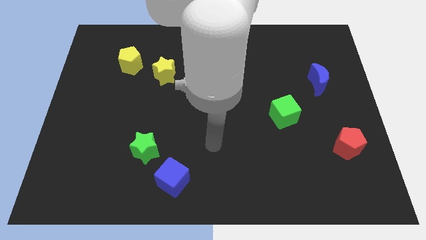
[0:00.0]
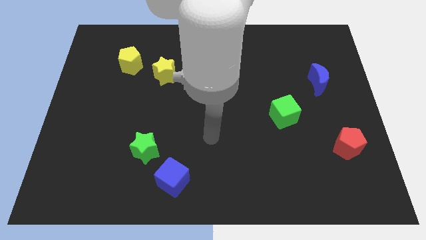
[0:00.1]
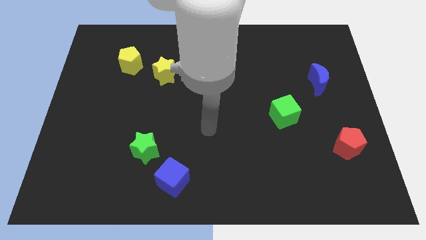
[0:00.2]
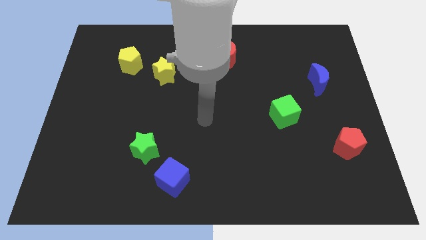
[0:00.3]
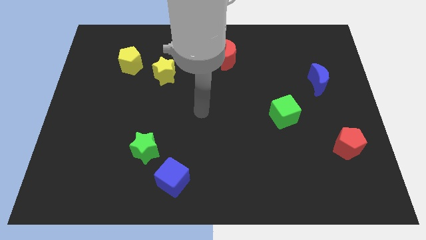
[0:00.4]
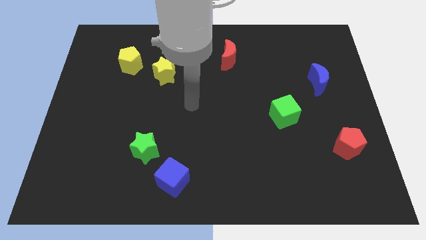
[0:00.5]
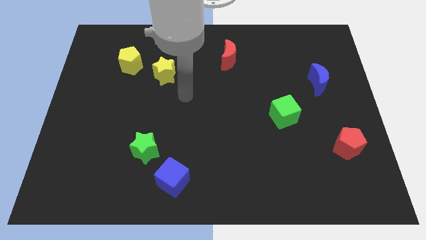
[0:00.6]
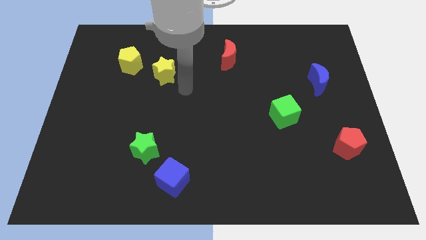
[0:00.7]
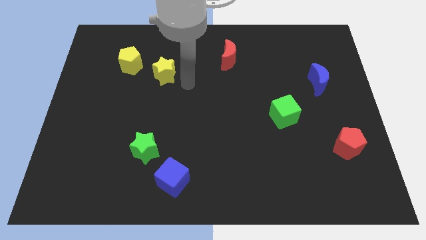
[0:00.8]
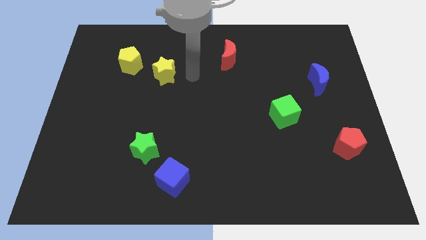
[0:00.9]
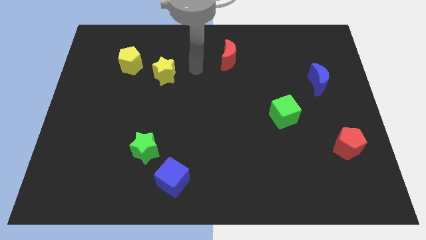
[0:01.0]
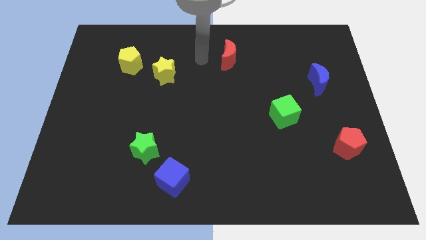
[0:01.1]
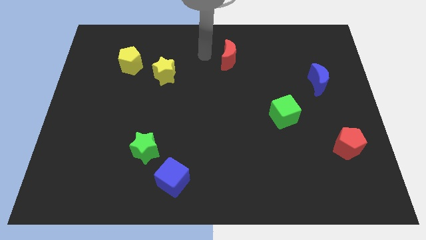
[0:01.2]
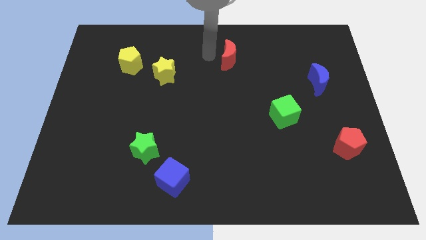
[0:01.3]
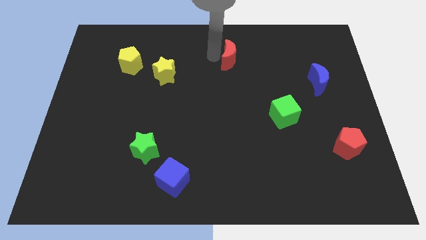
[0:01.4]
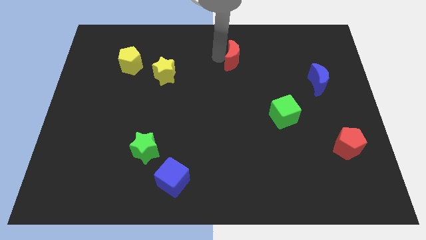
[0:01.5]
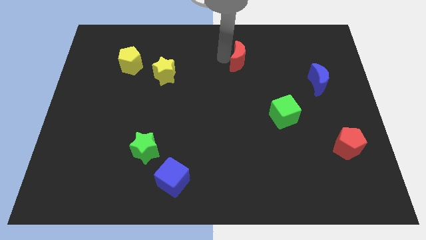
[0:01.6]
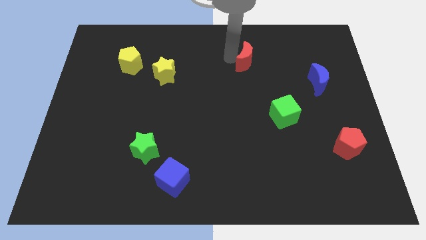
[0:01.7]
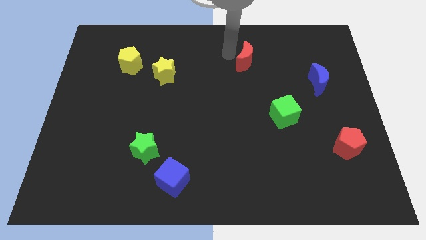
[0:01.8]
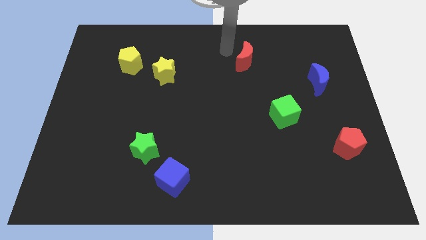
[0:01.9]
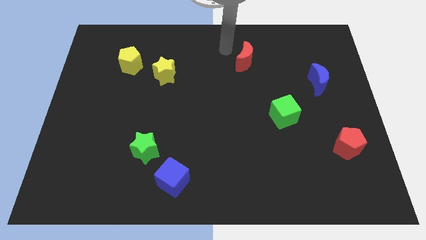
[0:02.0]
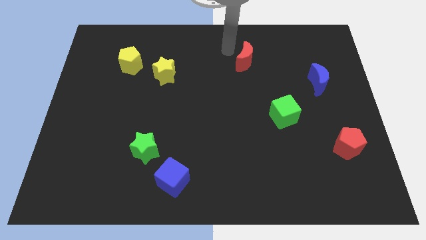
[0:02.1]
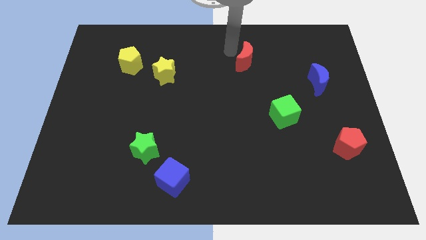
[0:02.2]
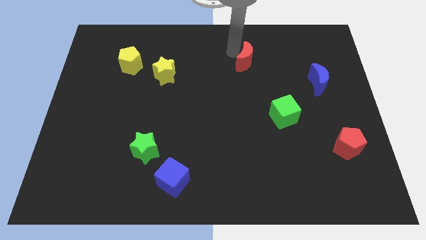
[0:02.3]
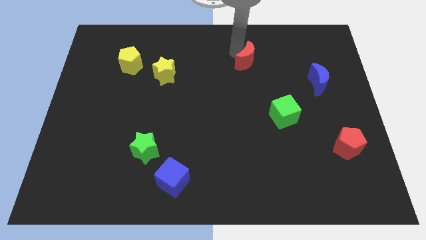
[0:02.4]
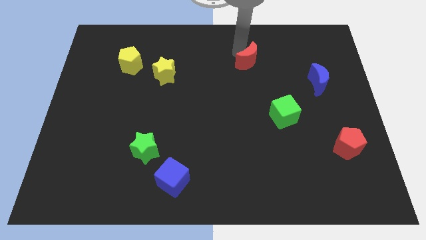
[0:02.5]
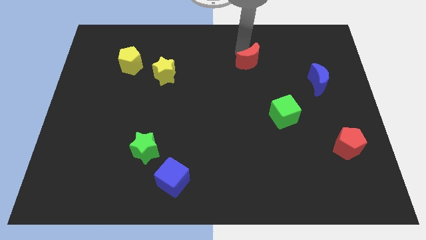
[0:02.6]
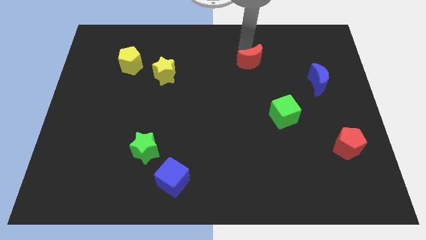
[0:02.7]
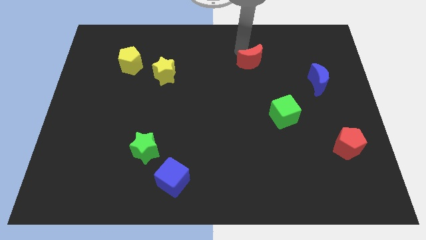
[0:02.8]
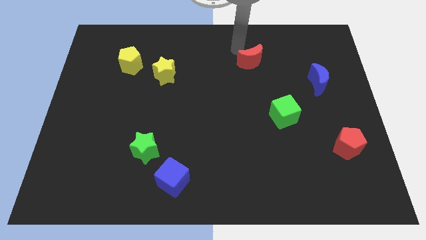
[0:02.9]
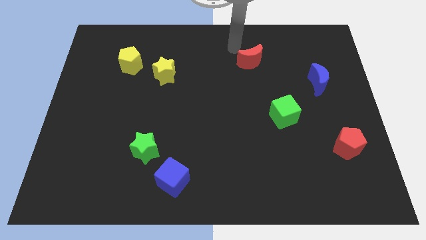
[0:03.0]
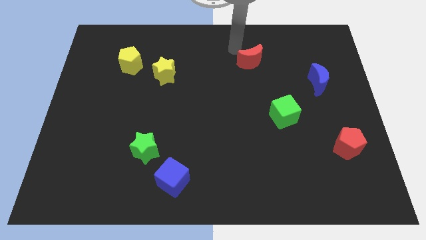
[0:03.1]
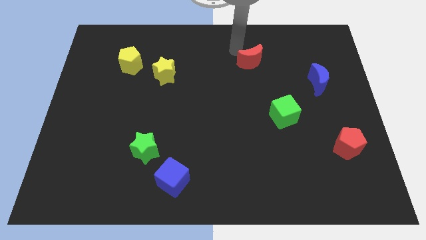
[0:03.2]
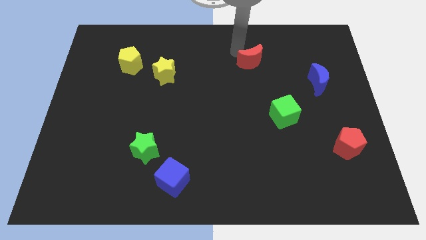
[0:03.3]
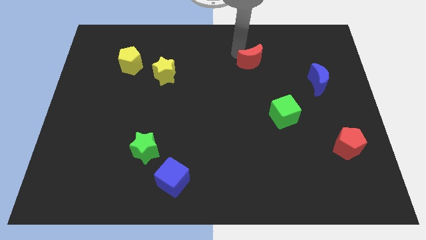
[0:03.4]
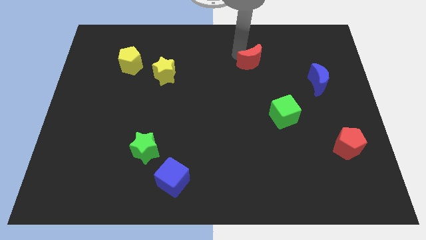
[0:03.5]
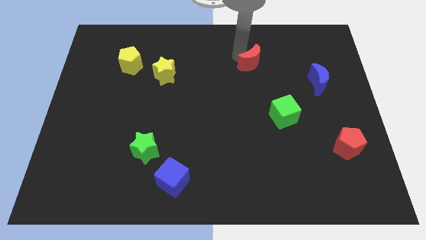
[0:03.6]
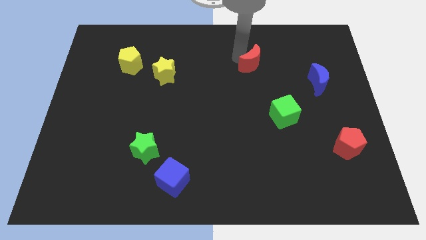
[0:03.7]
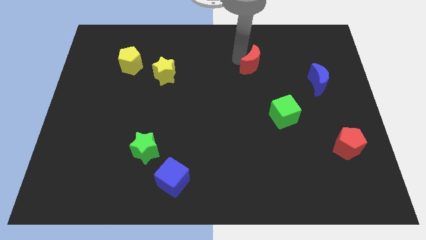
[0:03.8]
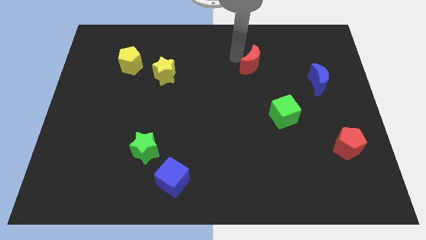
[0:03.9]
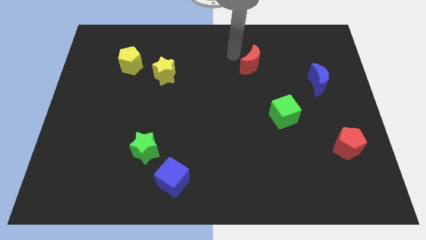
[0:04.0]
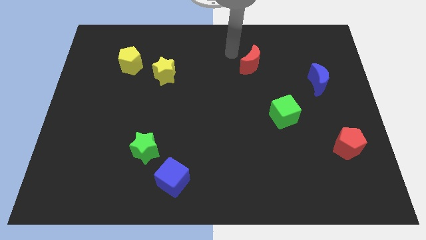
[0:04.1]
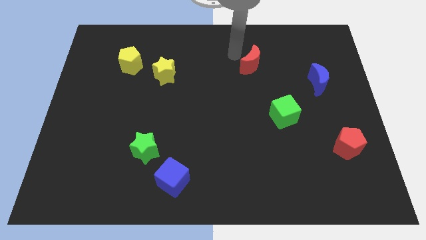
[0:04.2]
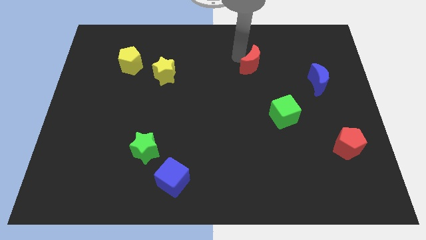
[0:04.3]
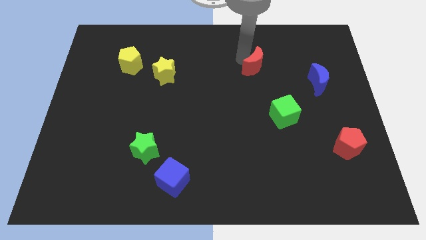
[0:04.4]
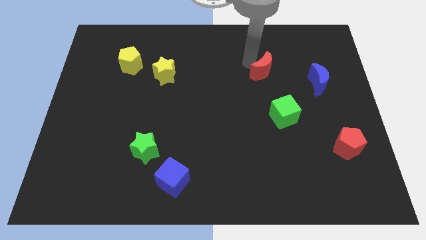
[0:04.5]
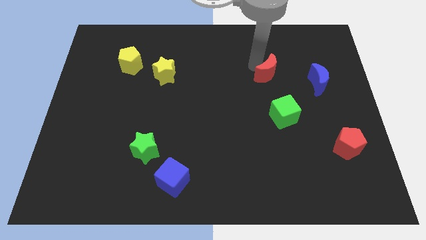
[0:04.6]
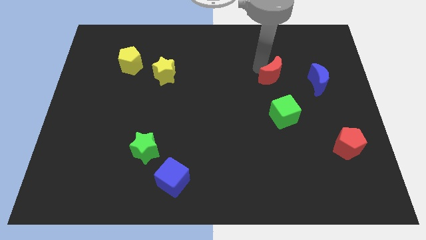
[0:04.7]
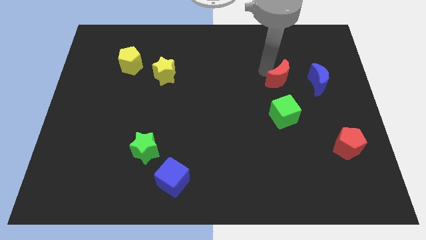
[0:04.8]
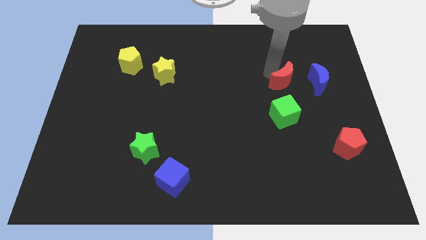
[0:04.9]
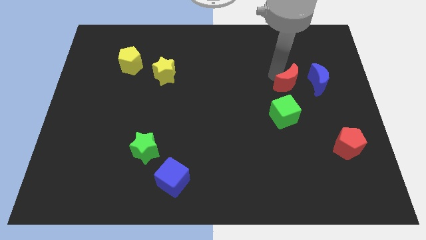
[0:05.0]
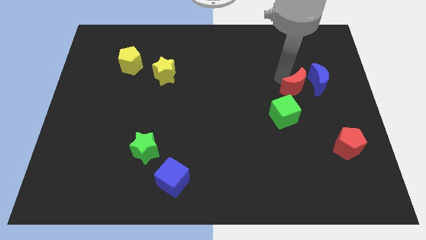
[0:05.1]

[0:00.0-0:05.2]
move the red moon to the bottom left of the blue moon

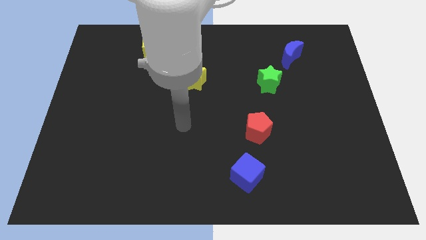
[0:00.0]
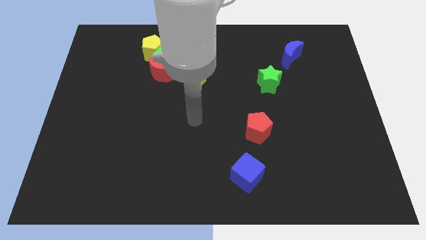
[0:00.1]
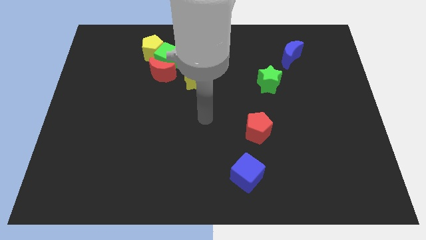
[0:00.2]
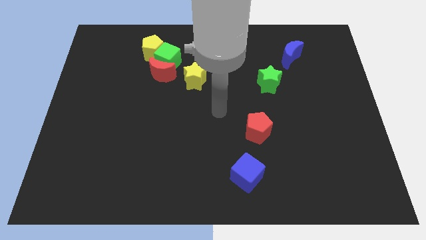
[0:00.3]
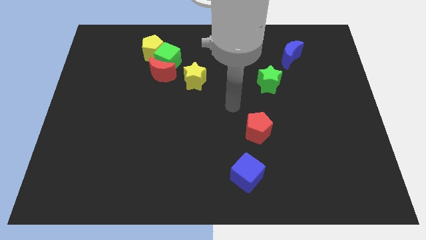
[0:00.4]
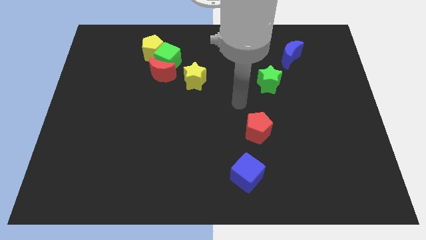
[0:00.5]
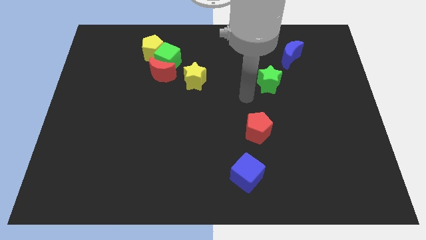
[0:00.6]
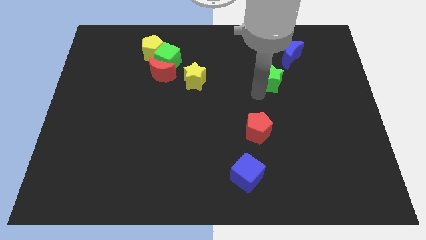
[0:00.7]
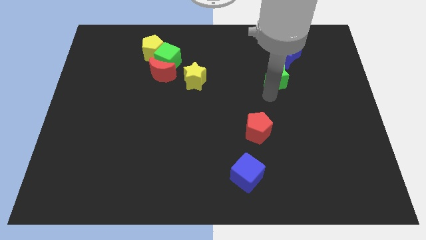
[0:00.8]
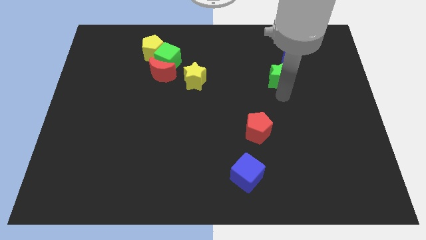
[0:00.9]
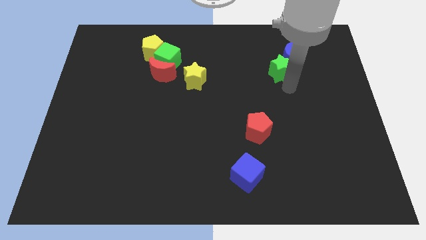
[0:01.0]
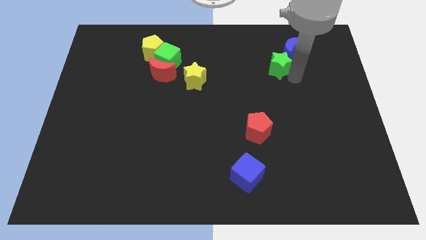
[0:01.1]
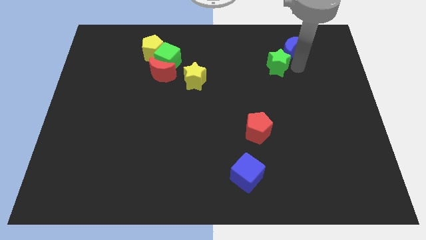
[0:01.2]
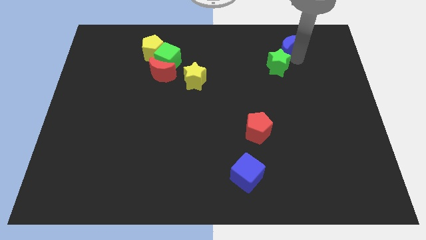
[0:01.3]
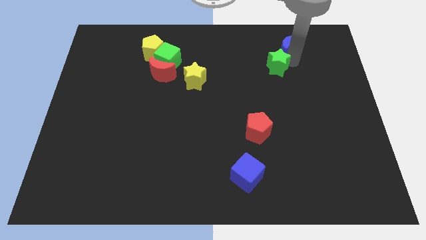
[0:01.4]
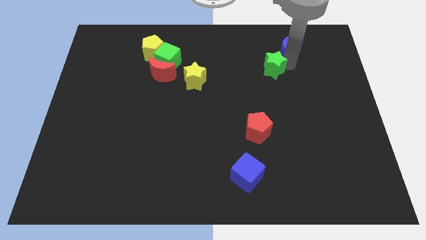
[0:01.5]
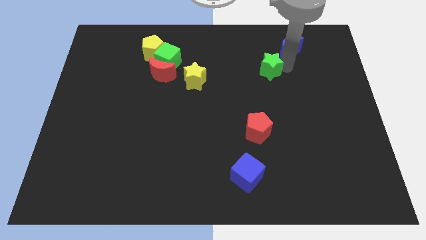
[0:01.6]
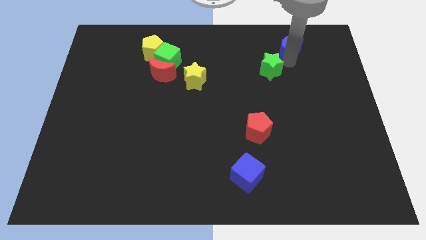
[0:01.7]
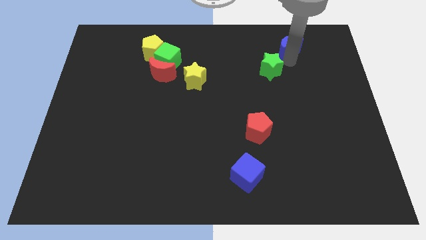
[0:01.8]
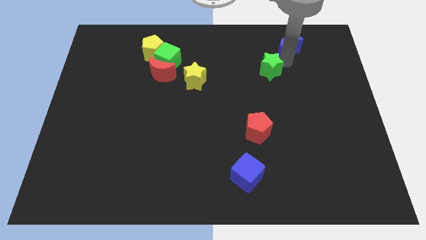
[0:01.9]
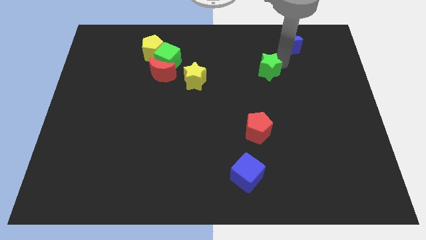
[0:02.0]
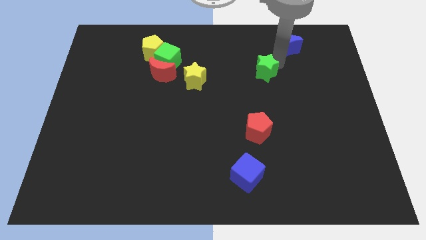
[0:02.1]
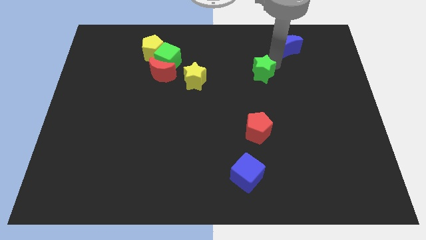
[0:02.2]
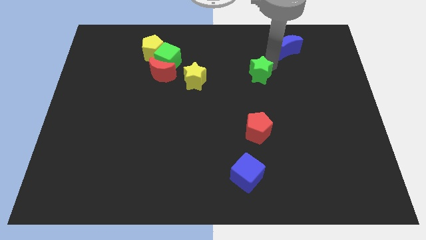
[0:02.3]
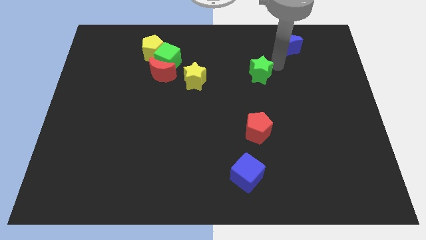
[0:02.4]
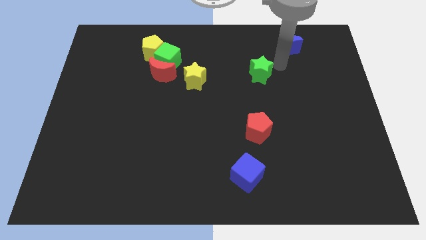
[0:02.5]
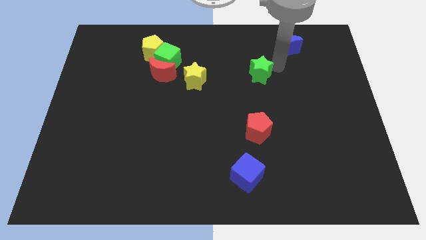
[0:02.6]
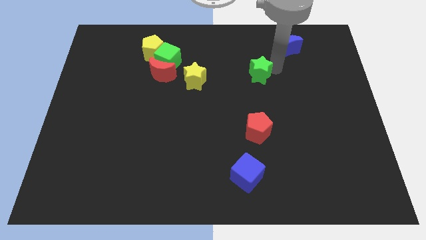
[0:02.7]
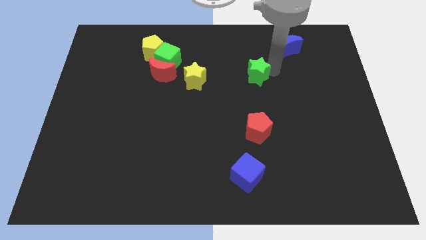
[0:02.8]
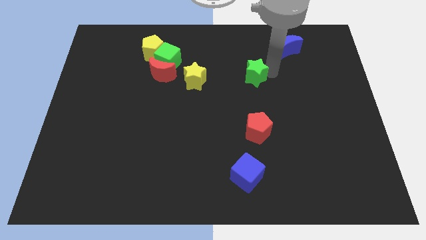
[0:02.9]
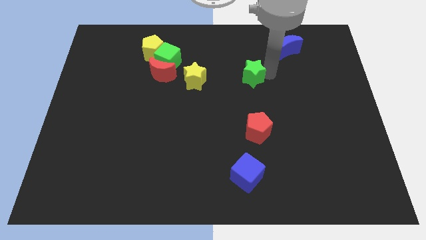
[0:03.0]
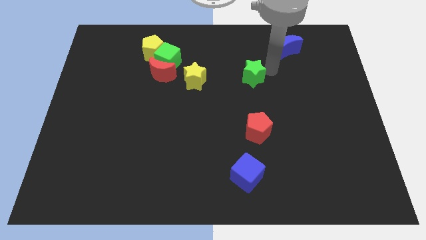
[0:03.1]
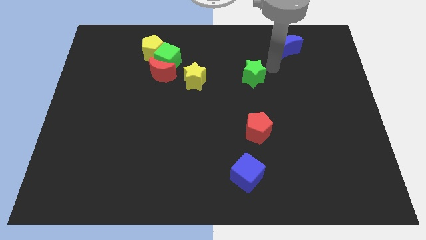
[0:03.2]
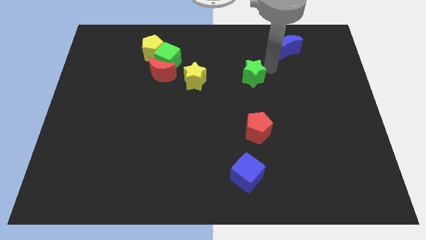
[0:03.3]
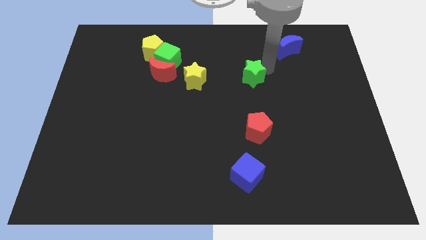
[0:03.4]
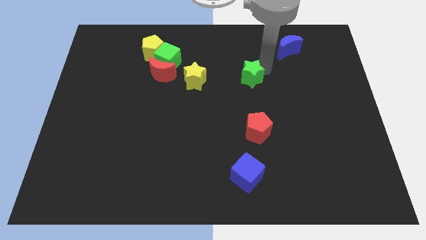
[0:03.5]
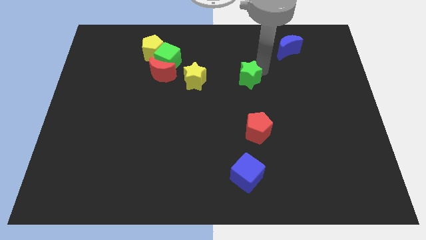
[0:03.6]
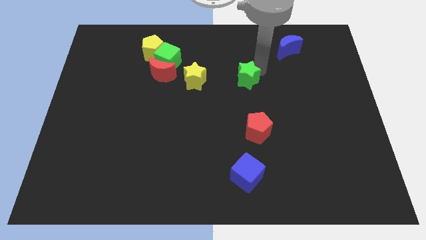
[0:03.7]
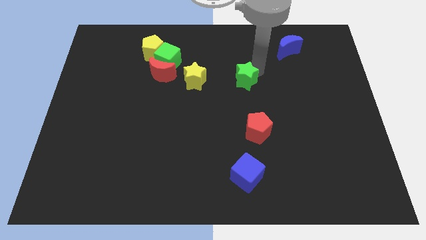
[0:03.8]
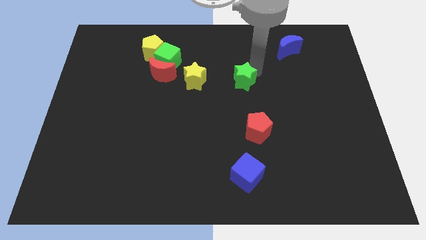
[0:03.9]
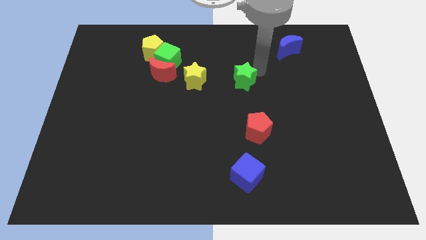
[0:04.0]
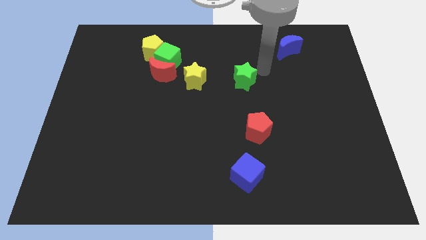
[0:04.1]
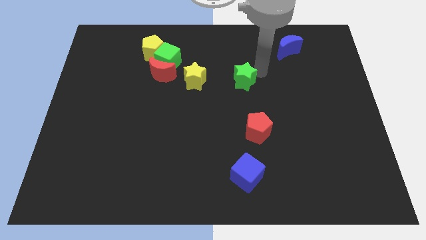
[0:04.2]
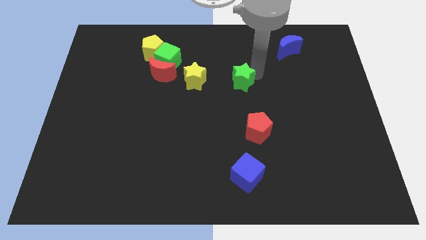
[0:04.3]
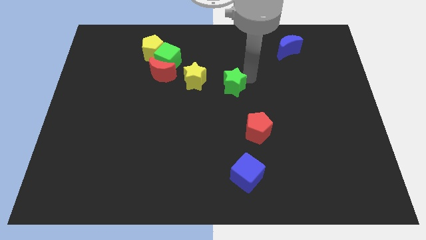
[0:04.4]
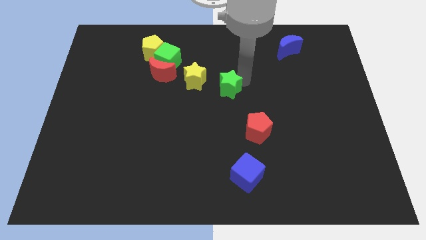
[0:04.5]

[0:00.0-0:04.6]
put the green star diagonally down and to the right of the yellow star
